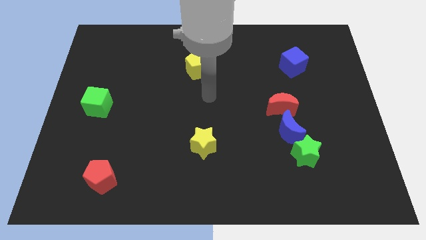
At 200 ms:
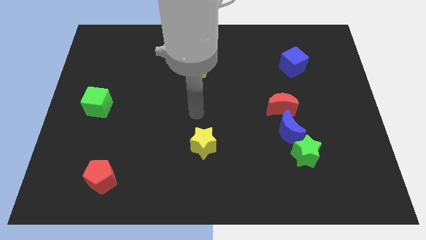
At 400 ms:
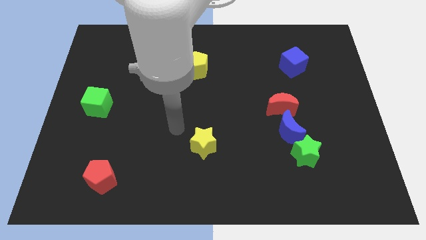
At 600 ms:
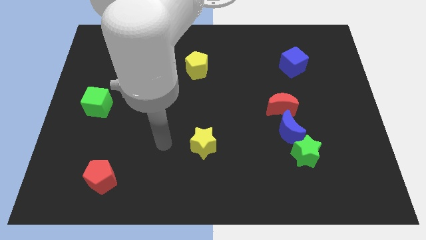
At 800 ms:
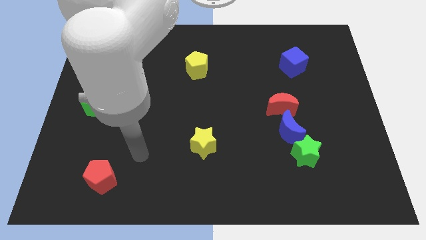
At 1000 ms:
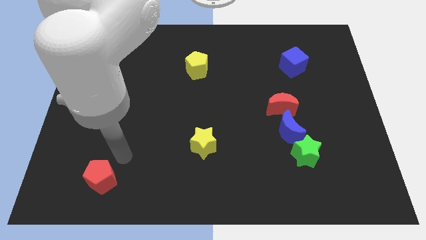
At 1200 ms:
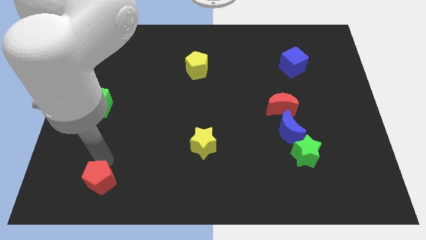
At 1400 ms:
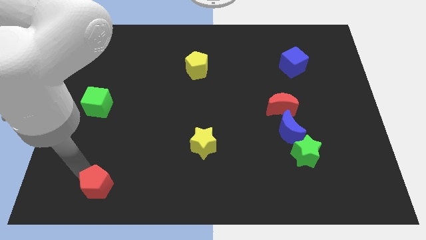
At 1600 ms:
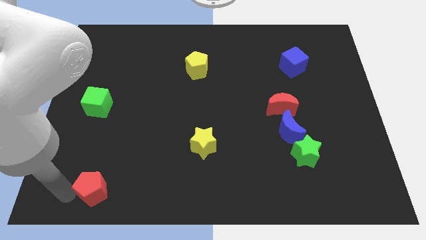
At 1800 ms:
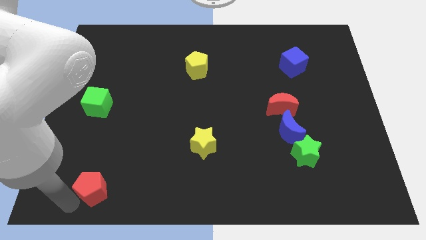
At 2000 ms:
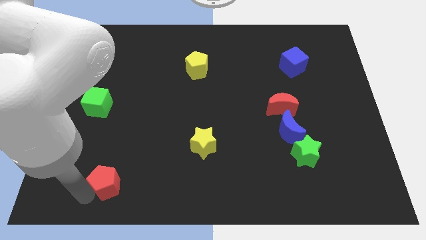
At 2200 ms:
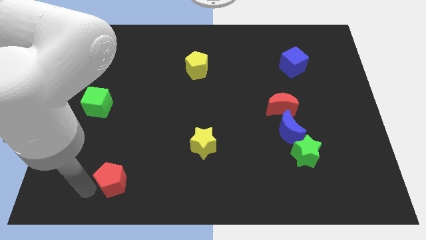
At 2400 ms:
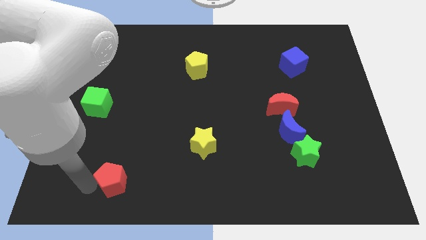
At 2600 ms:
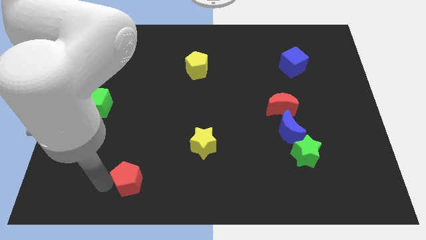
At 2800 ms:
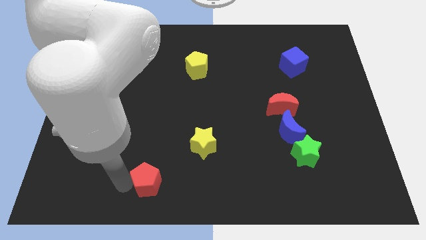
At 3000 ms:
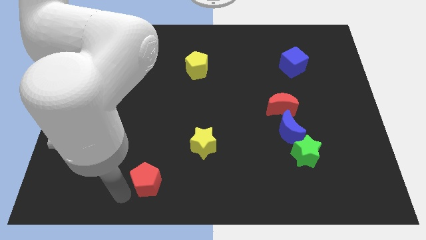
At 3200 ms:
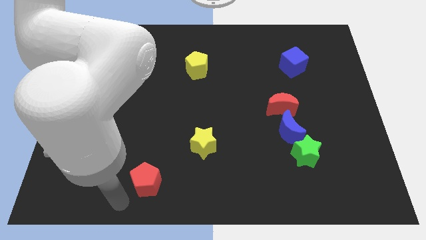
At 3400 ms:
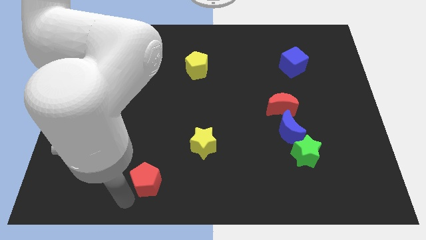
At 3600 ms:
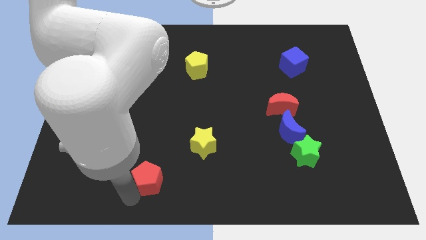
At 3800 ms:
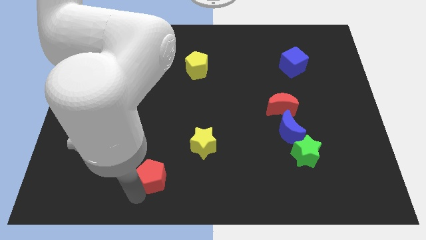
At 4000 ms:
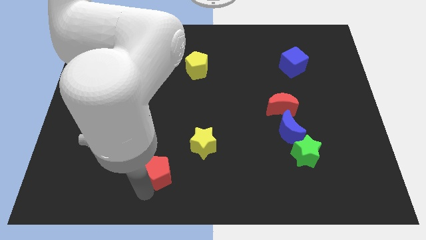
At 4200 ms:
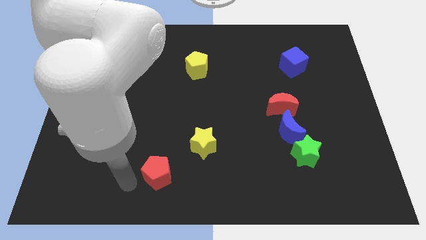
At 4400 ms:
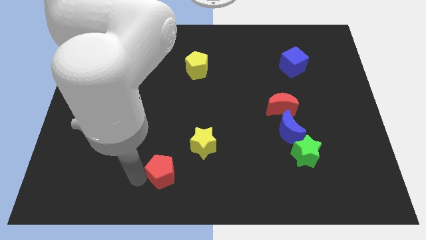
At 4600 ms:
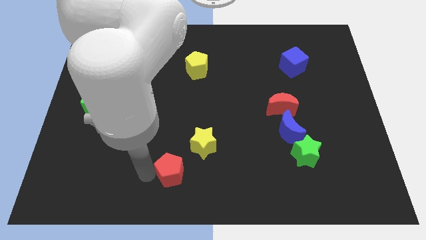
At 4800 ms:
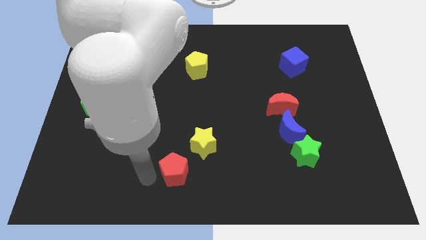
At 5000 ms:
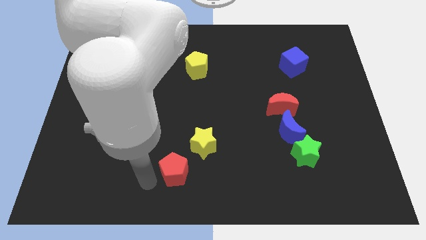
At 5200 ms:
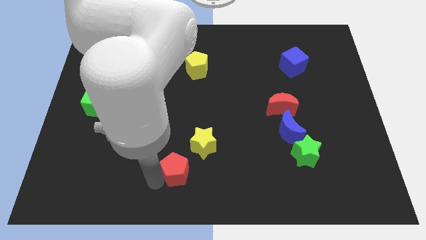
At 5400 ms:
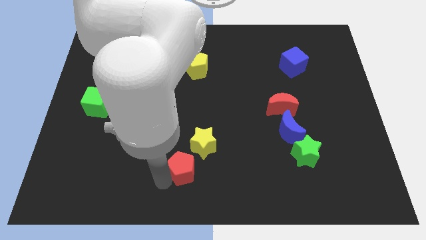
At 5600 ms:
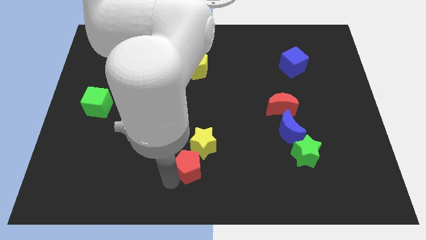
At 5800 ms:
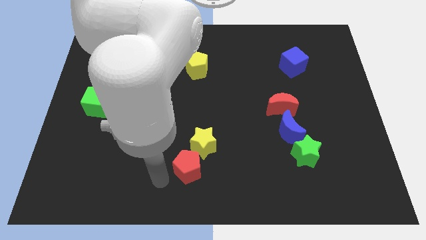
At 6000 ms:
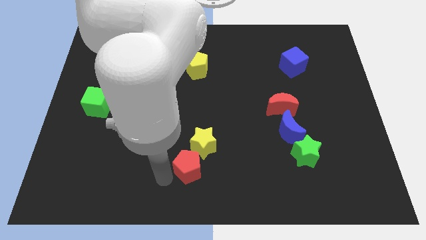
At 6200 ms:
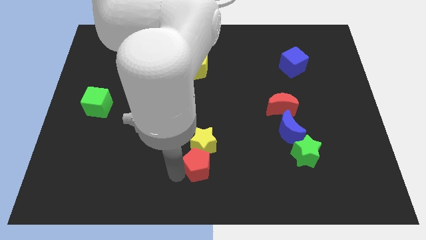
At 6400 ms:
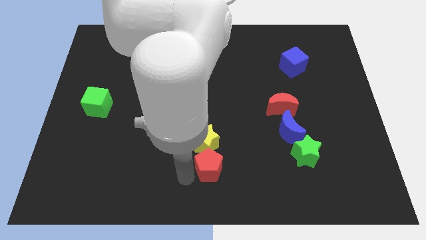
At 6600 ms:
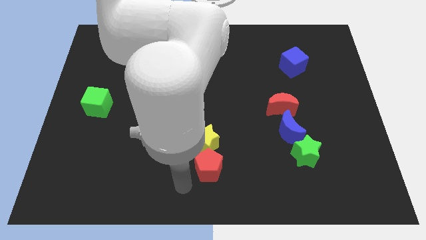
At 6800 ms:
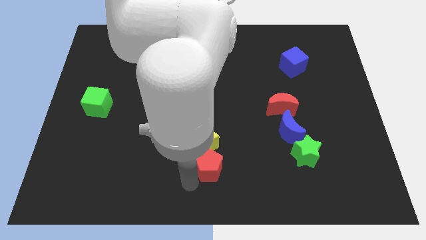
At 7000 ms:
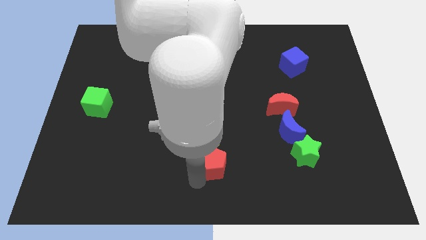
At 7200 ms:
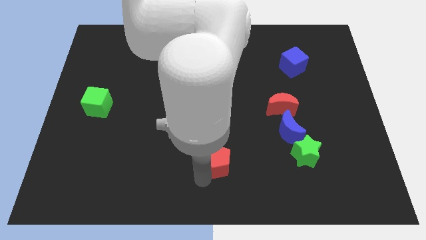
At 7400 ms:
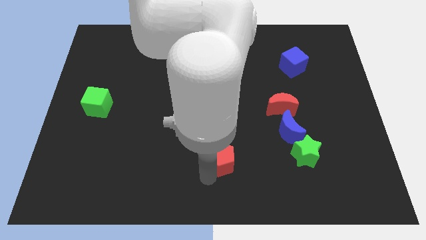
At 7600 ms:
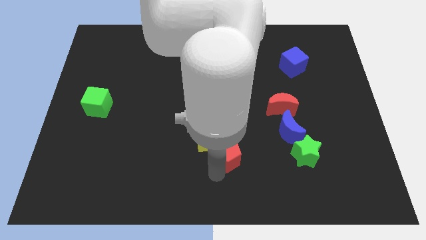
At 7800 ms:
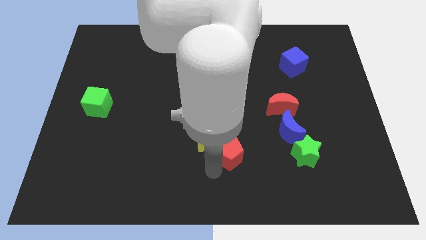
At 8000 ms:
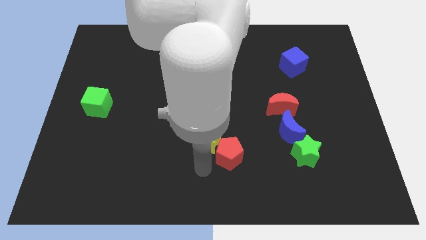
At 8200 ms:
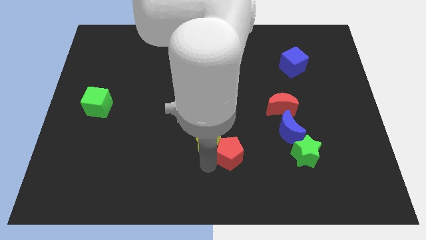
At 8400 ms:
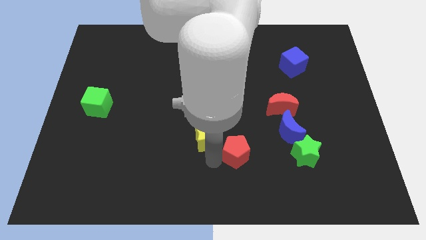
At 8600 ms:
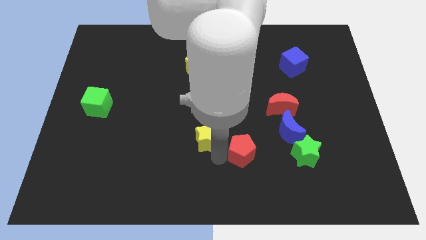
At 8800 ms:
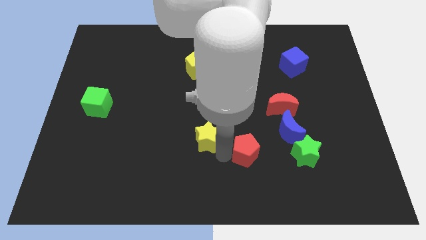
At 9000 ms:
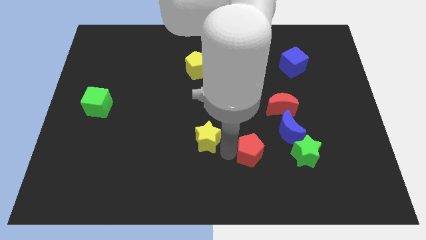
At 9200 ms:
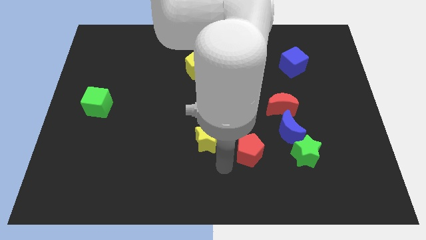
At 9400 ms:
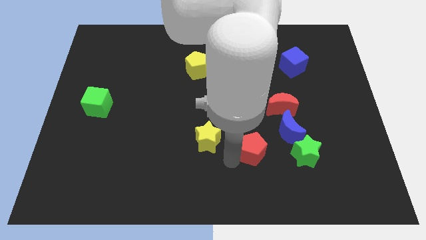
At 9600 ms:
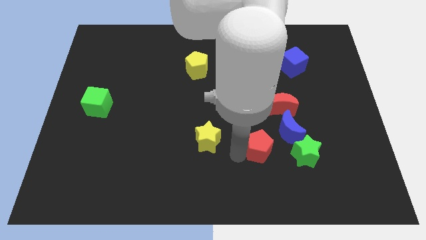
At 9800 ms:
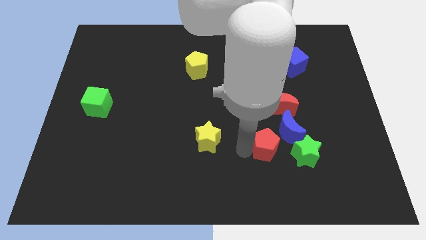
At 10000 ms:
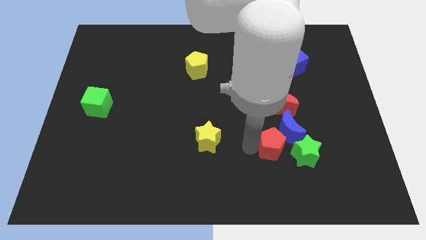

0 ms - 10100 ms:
slide the red pentagon to the blue moon

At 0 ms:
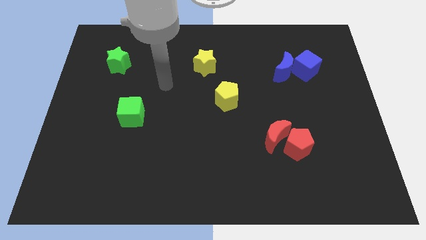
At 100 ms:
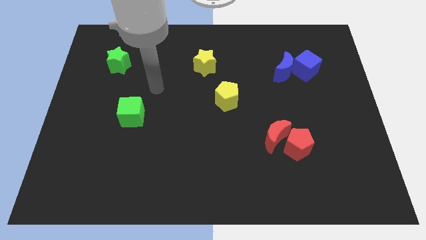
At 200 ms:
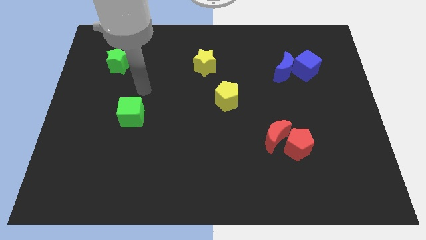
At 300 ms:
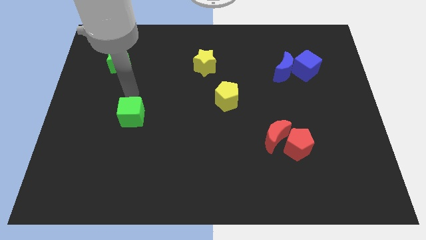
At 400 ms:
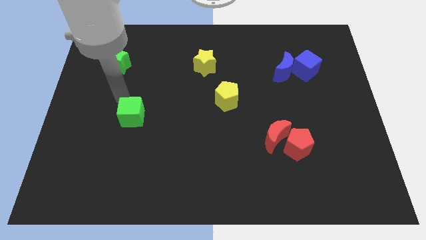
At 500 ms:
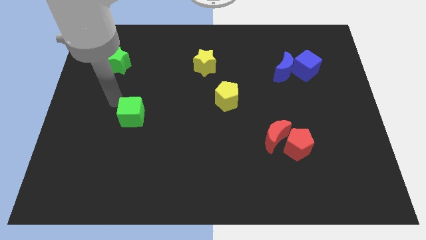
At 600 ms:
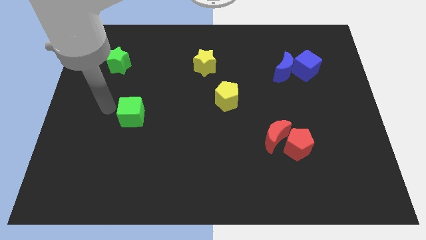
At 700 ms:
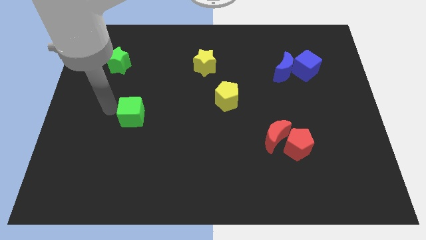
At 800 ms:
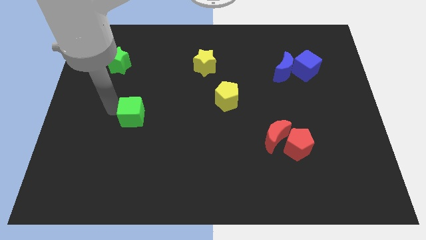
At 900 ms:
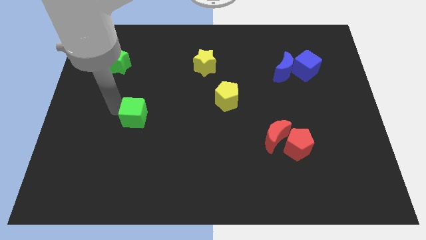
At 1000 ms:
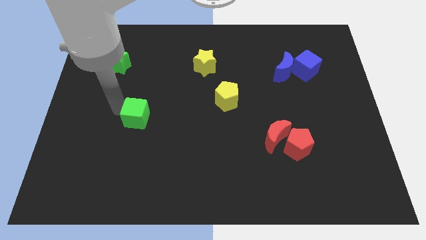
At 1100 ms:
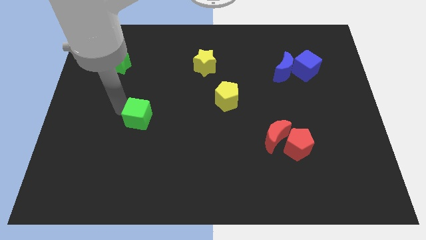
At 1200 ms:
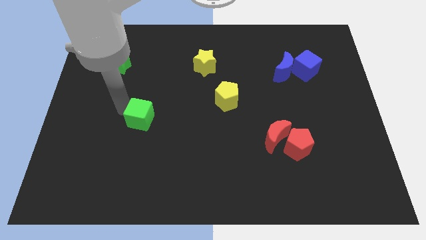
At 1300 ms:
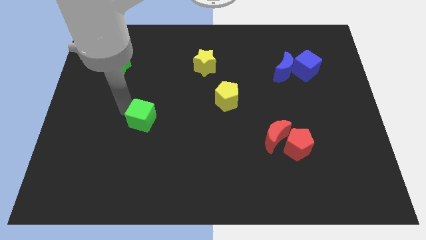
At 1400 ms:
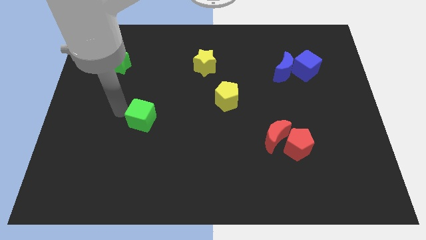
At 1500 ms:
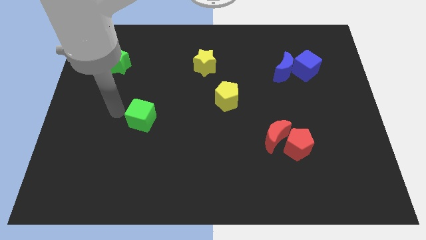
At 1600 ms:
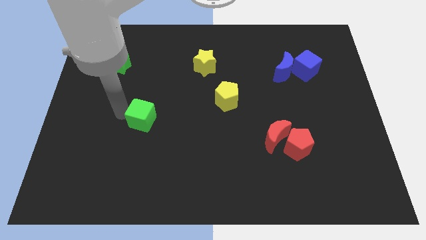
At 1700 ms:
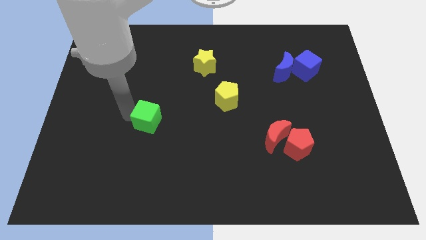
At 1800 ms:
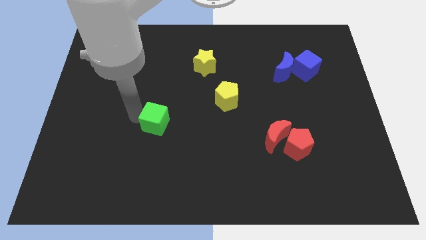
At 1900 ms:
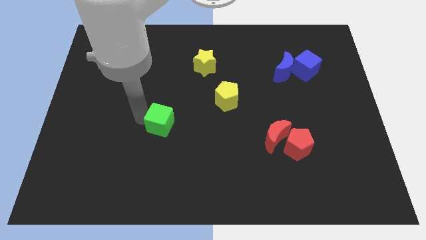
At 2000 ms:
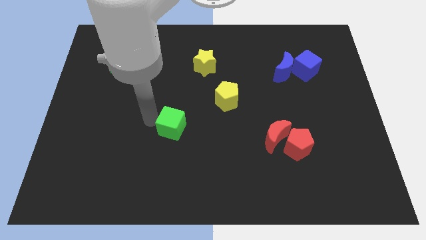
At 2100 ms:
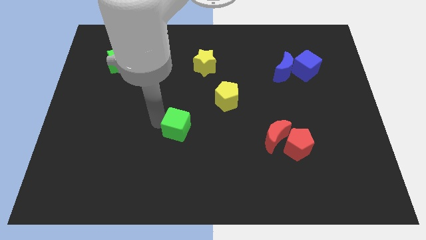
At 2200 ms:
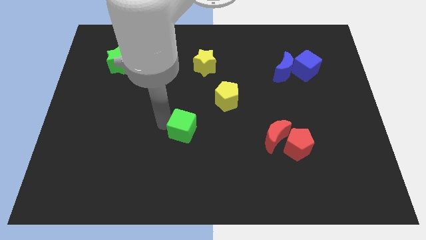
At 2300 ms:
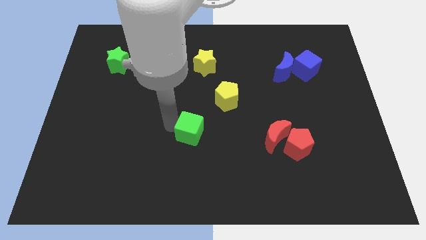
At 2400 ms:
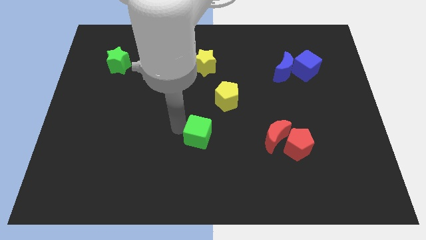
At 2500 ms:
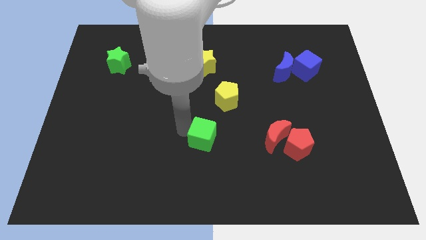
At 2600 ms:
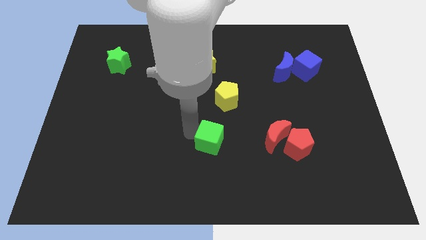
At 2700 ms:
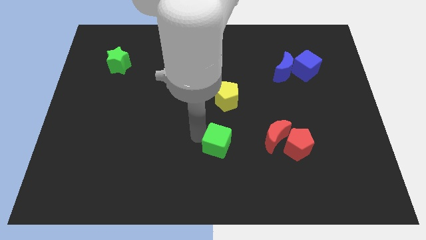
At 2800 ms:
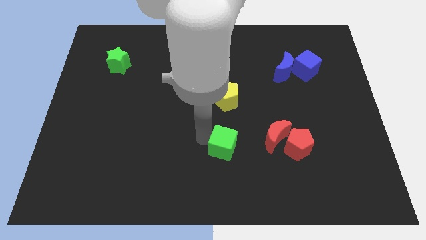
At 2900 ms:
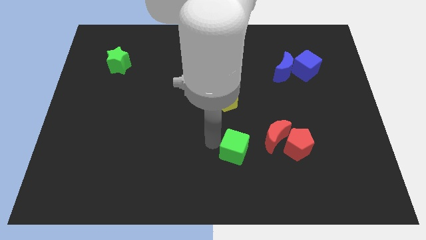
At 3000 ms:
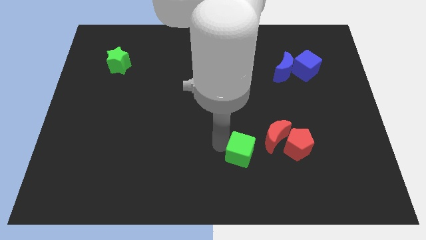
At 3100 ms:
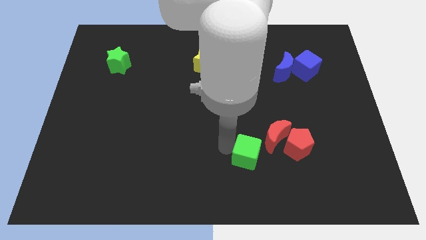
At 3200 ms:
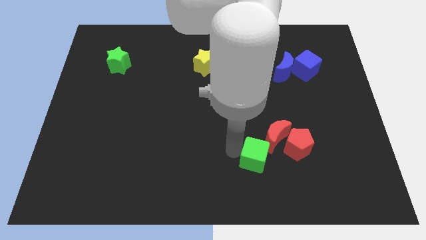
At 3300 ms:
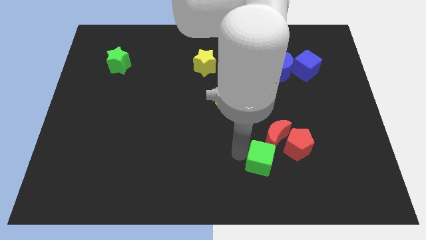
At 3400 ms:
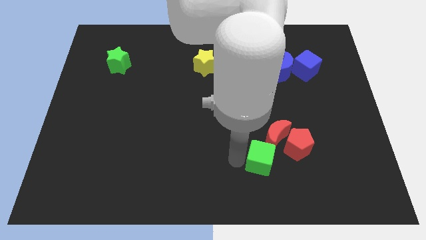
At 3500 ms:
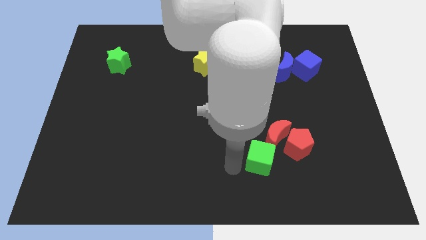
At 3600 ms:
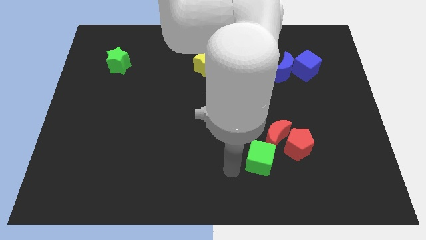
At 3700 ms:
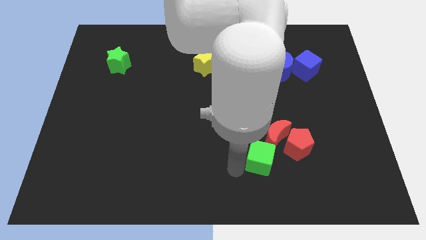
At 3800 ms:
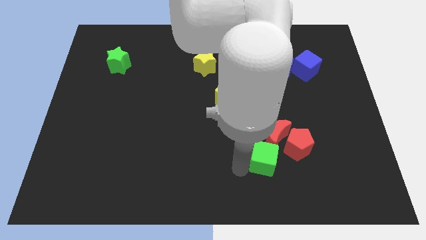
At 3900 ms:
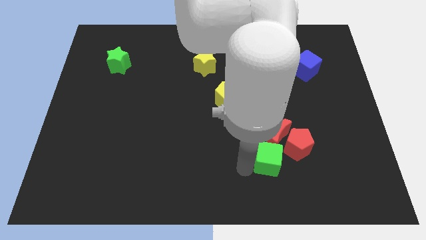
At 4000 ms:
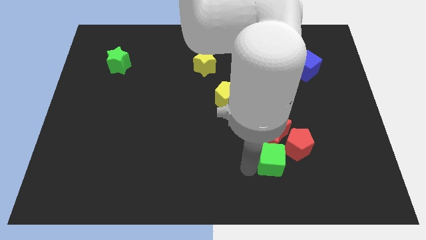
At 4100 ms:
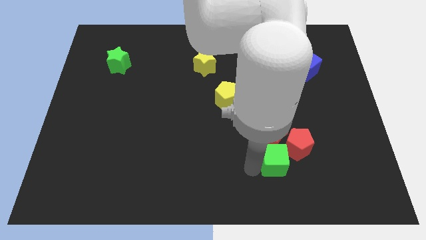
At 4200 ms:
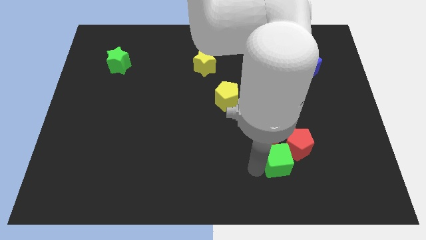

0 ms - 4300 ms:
move the green cube close to the red pentagon
